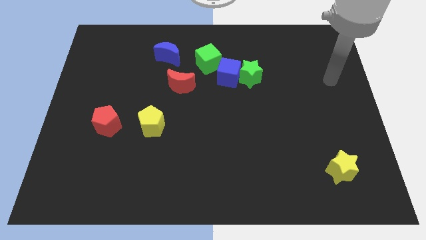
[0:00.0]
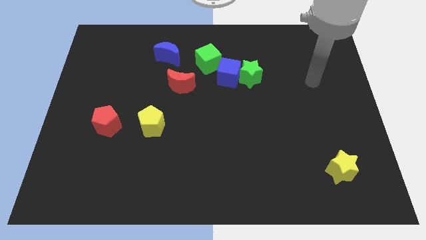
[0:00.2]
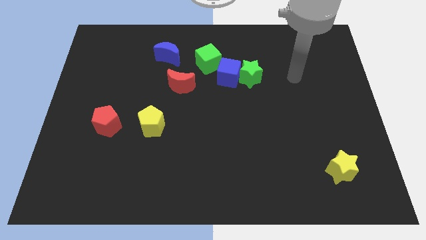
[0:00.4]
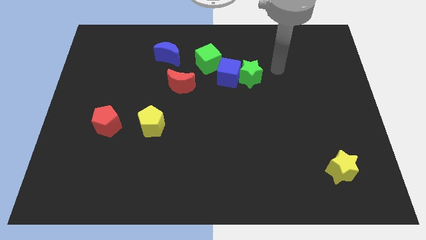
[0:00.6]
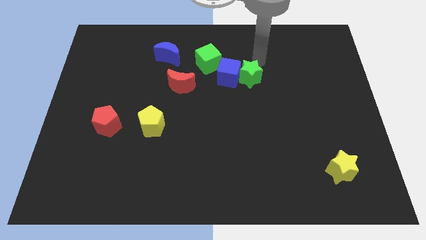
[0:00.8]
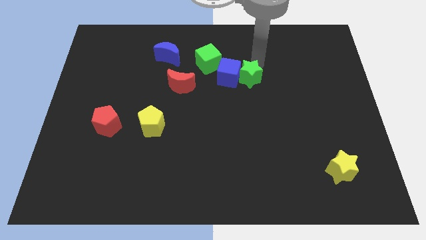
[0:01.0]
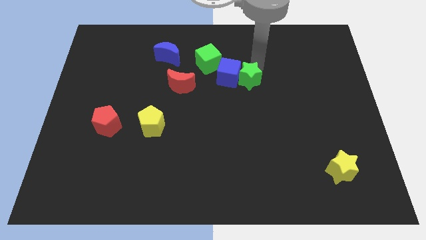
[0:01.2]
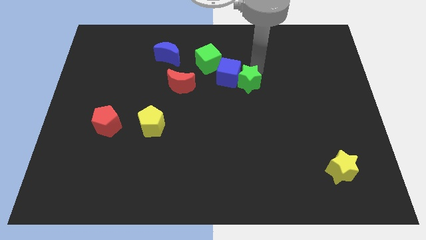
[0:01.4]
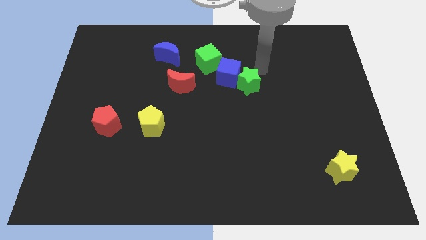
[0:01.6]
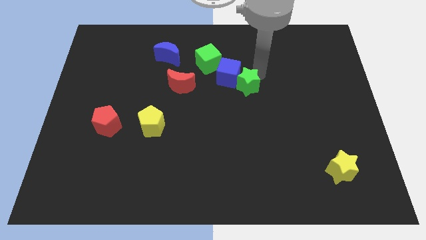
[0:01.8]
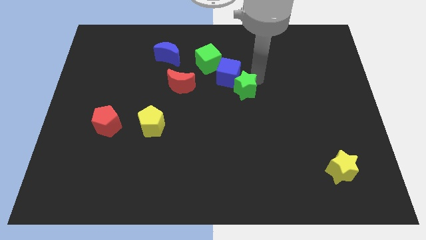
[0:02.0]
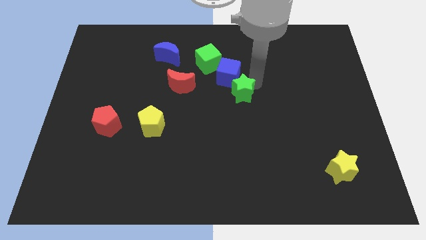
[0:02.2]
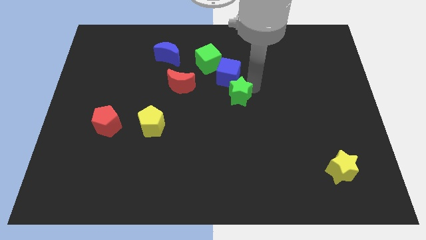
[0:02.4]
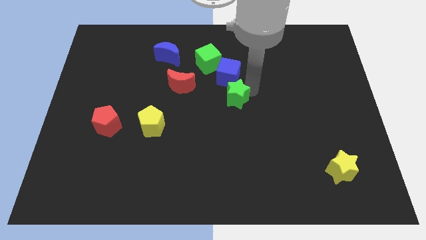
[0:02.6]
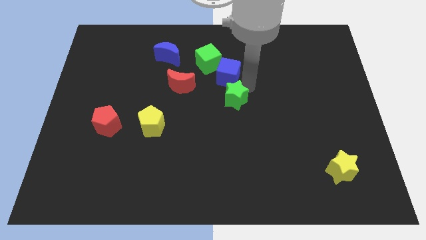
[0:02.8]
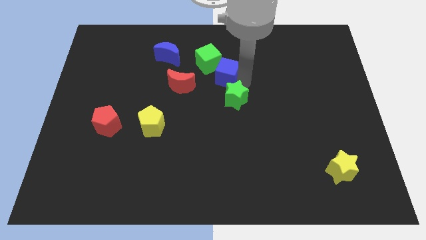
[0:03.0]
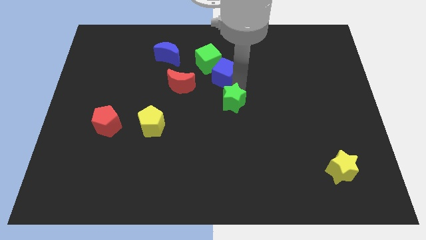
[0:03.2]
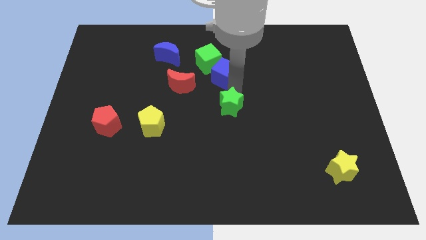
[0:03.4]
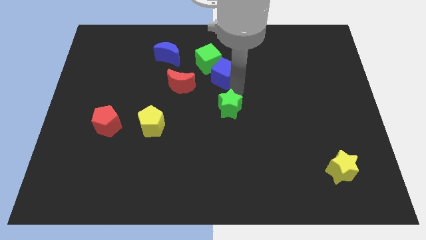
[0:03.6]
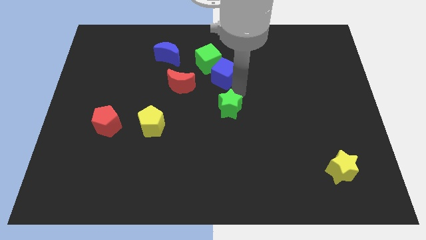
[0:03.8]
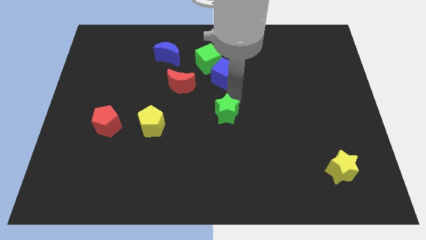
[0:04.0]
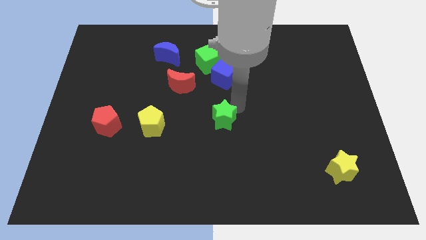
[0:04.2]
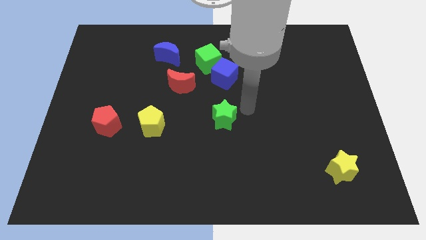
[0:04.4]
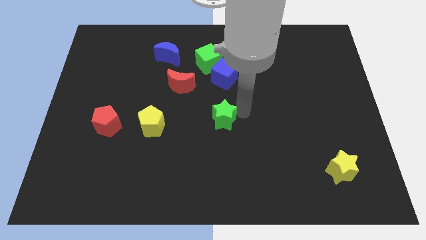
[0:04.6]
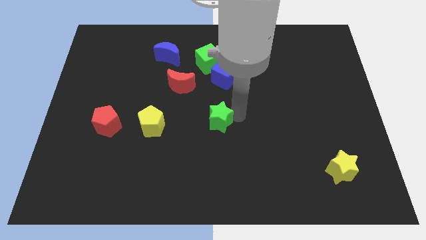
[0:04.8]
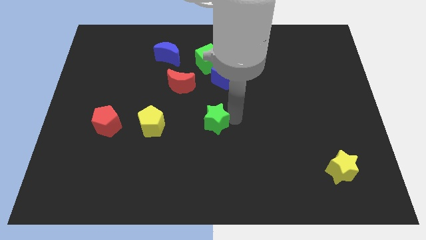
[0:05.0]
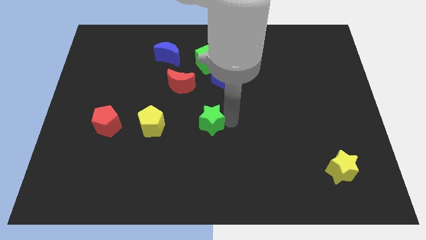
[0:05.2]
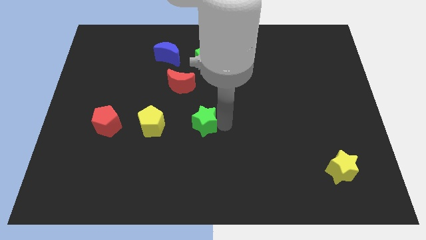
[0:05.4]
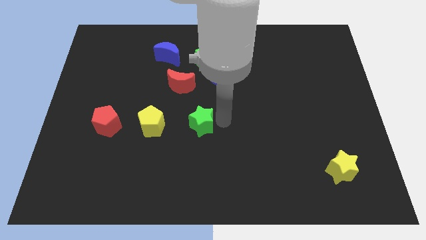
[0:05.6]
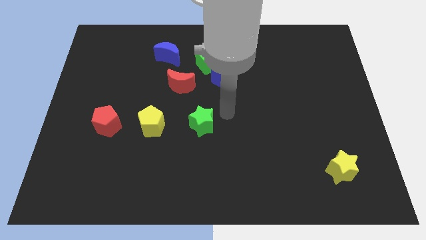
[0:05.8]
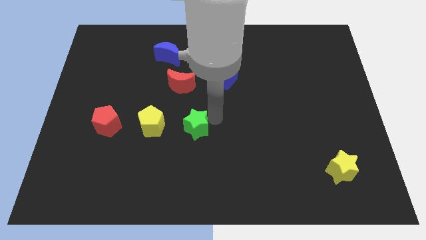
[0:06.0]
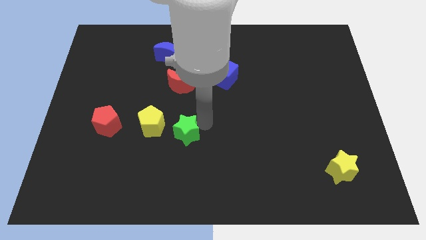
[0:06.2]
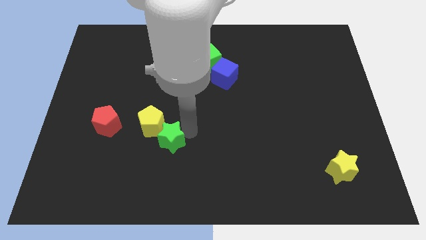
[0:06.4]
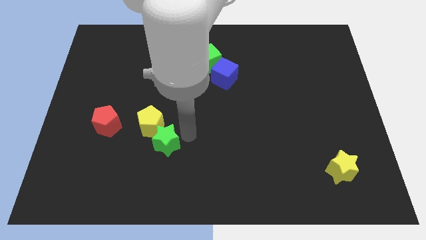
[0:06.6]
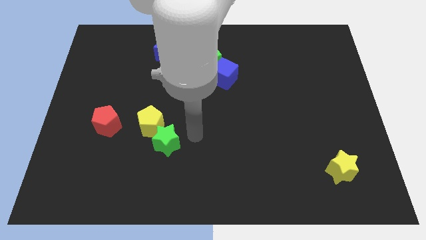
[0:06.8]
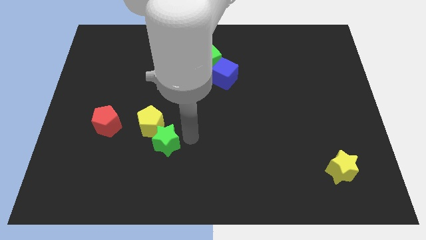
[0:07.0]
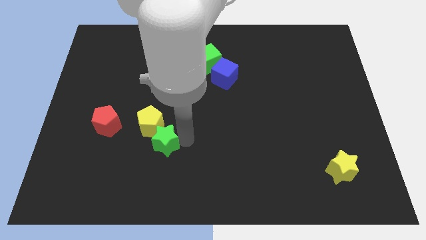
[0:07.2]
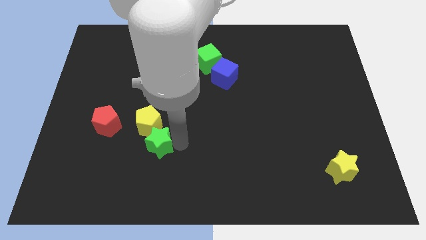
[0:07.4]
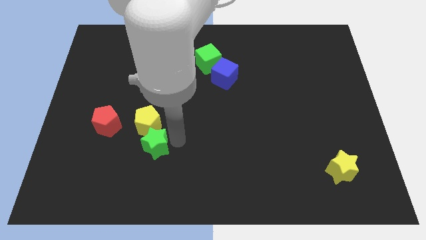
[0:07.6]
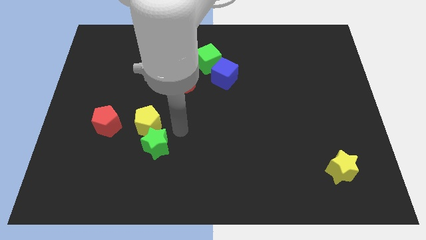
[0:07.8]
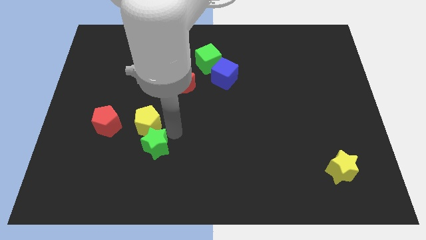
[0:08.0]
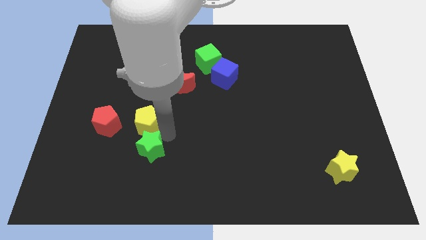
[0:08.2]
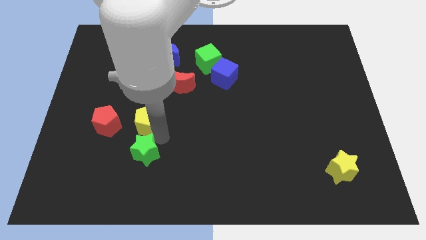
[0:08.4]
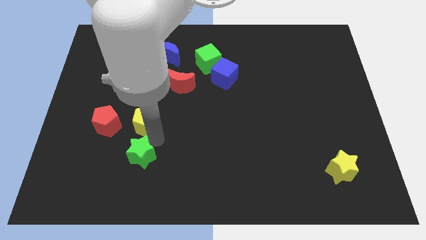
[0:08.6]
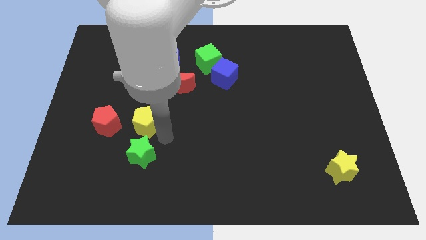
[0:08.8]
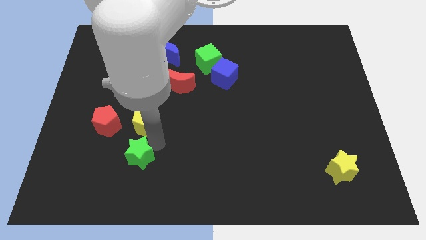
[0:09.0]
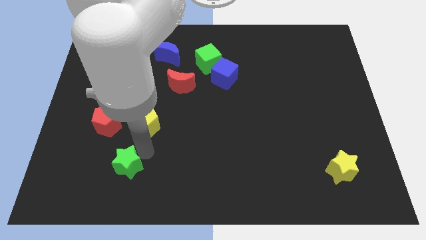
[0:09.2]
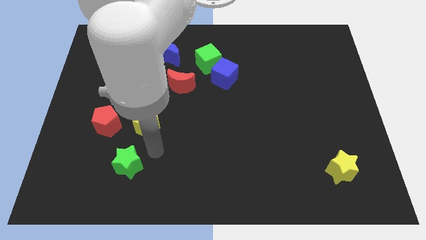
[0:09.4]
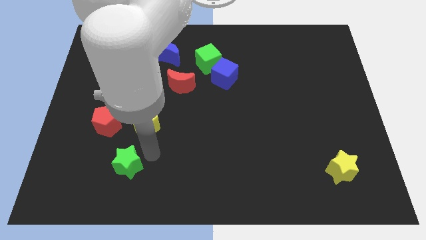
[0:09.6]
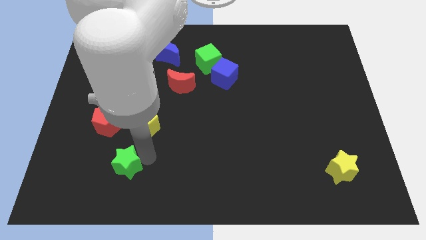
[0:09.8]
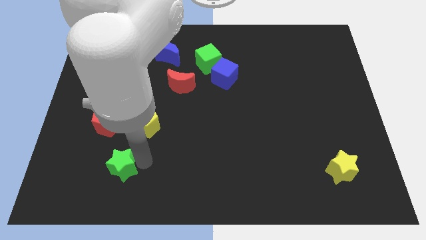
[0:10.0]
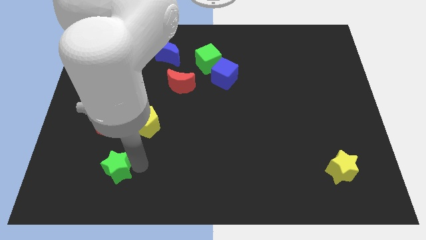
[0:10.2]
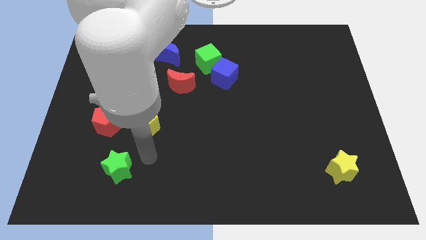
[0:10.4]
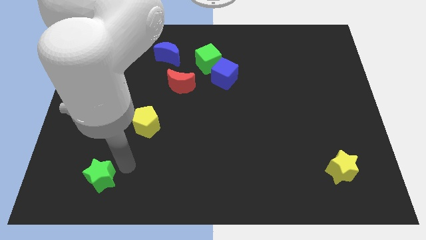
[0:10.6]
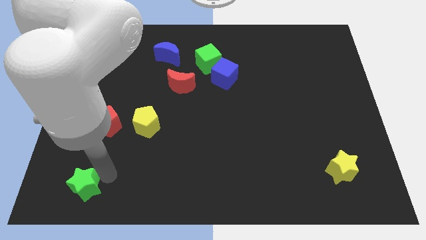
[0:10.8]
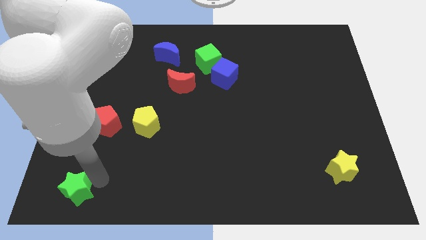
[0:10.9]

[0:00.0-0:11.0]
move the green star to the bottom left corner

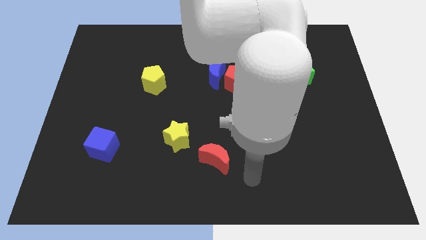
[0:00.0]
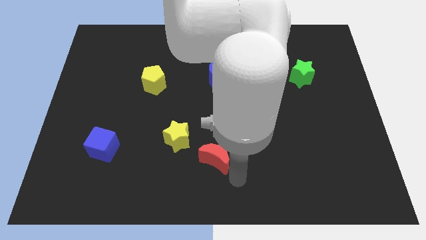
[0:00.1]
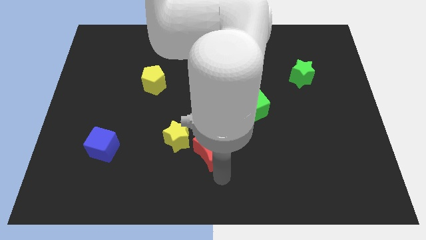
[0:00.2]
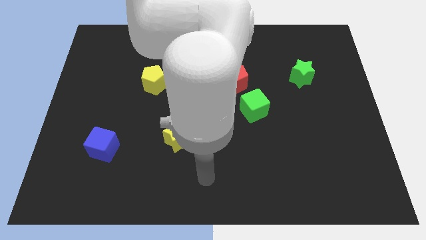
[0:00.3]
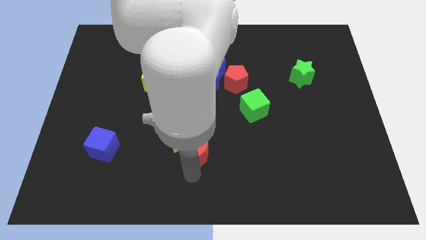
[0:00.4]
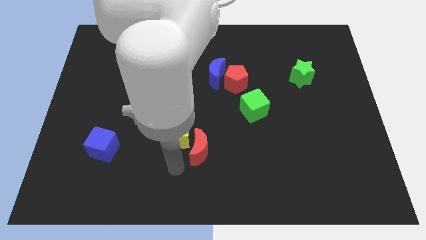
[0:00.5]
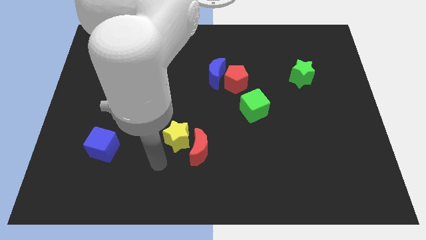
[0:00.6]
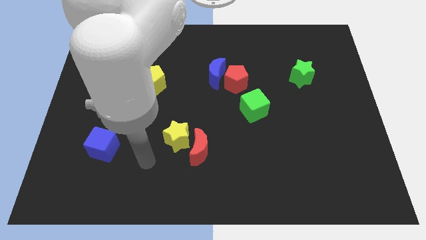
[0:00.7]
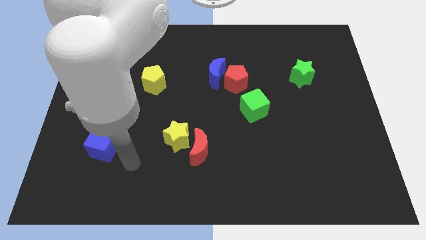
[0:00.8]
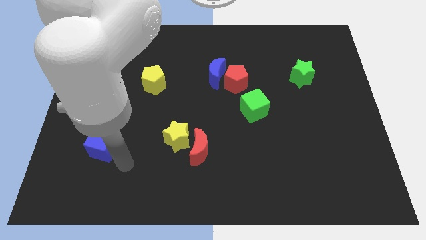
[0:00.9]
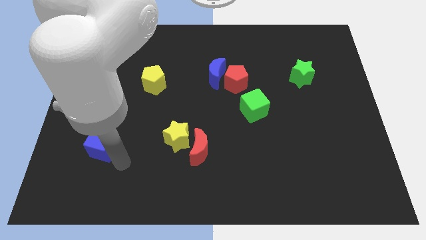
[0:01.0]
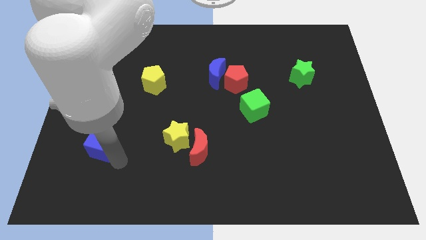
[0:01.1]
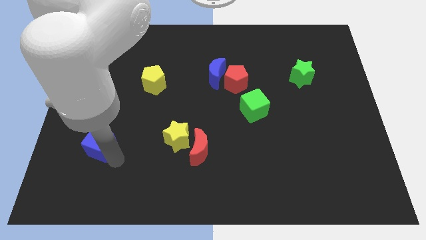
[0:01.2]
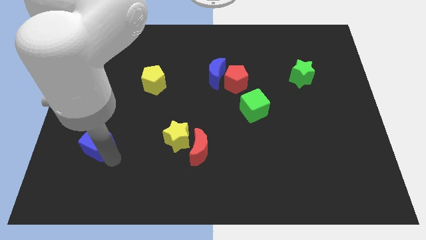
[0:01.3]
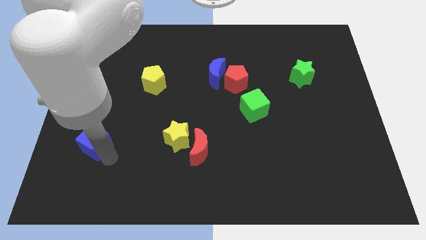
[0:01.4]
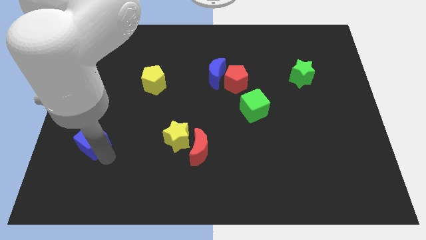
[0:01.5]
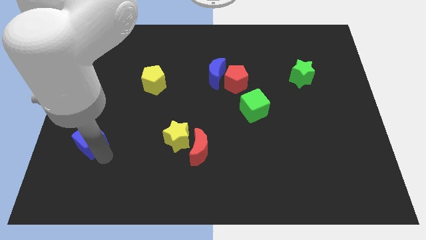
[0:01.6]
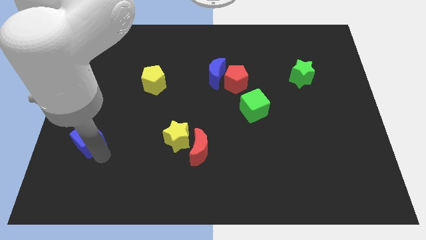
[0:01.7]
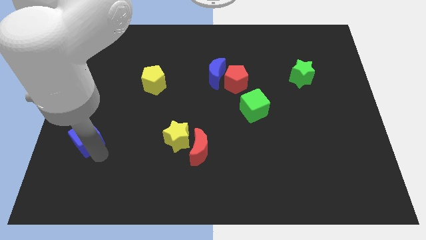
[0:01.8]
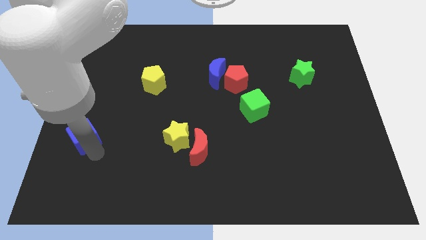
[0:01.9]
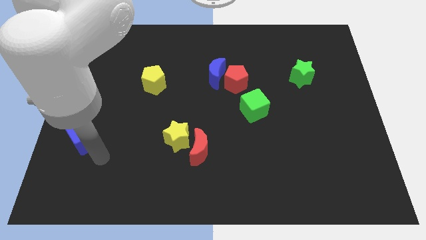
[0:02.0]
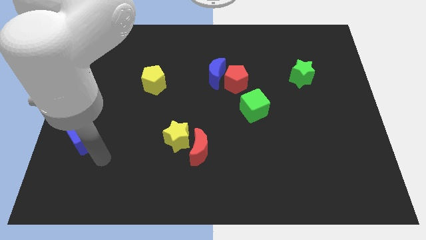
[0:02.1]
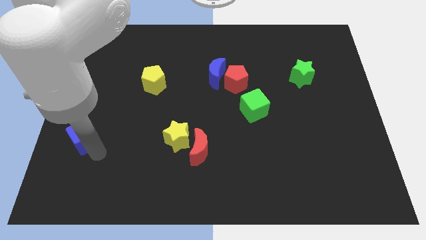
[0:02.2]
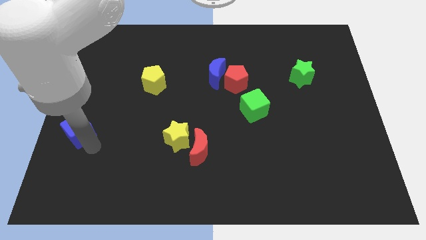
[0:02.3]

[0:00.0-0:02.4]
push the blue cube to the center left
